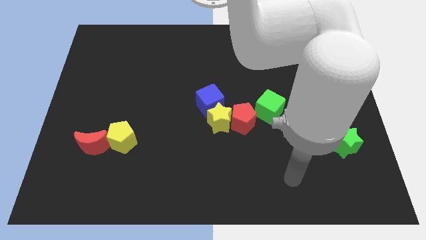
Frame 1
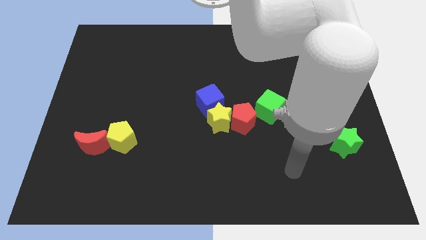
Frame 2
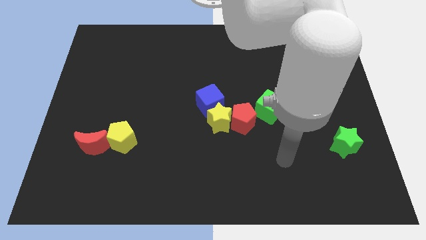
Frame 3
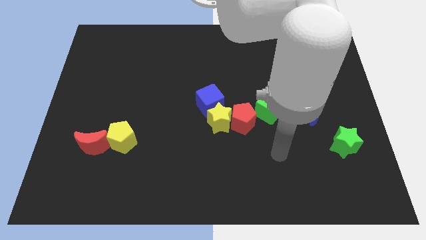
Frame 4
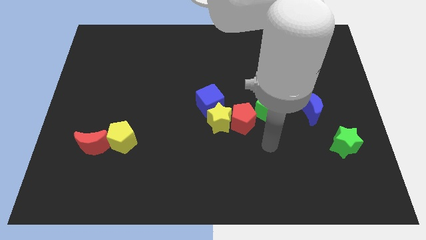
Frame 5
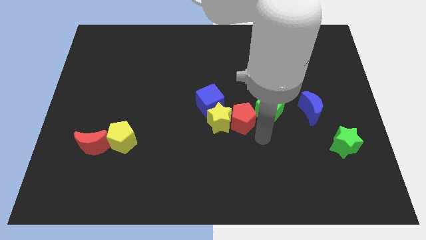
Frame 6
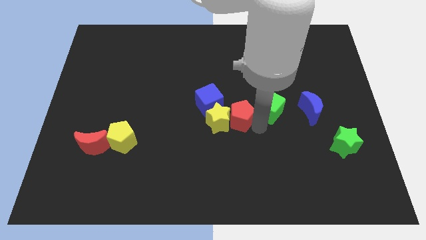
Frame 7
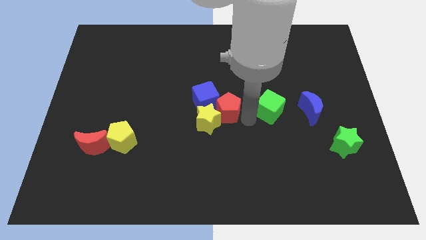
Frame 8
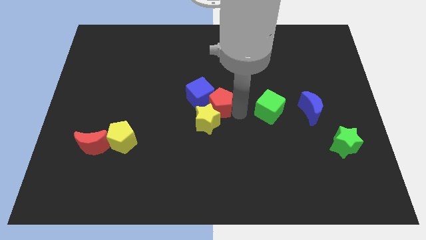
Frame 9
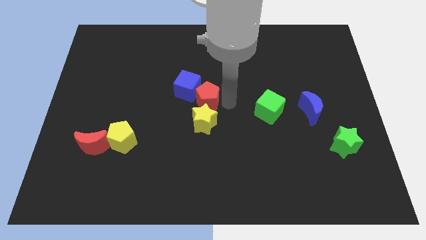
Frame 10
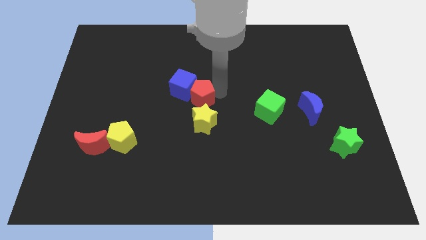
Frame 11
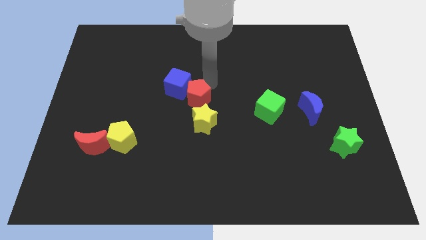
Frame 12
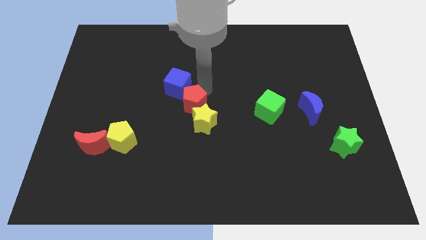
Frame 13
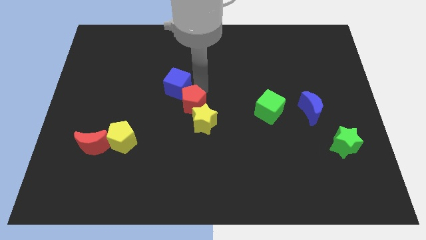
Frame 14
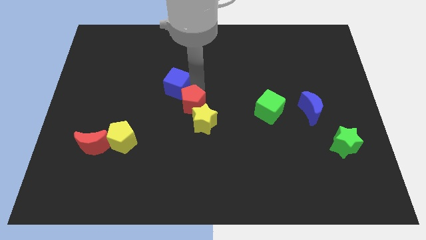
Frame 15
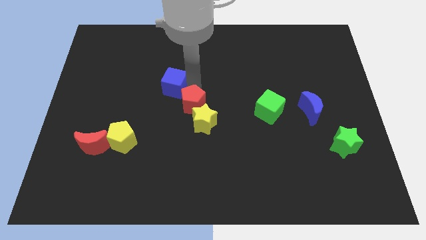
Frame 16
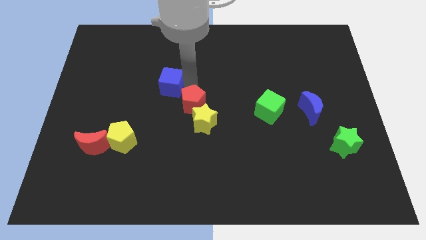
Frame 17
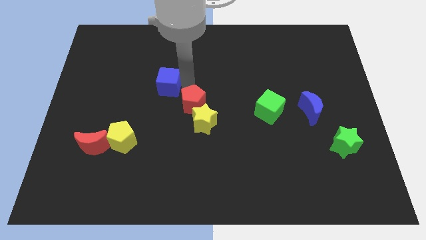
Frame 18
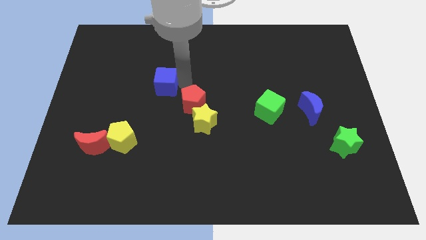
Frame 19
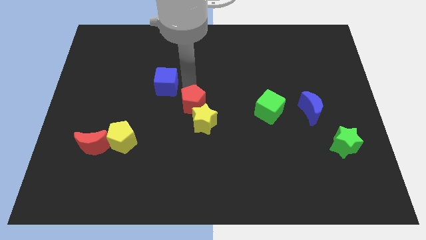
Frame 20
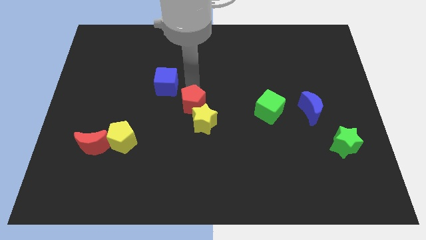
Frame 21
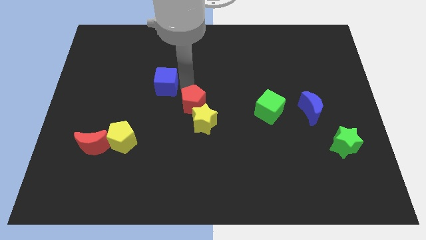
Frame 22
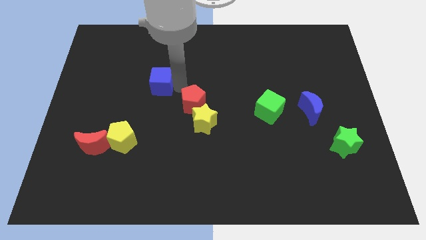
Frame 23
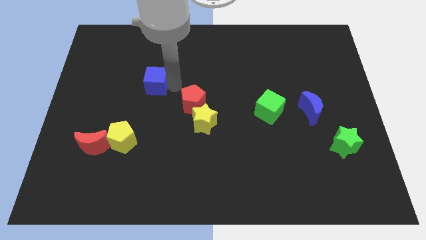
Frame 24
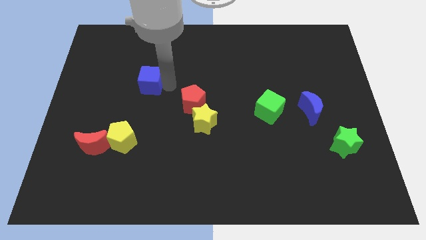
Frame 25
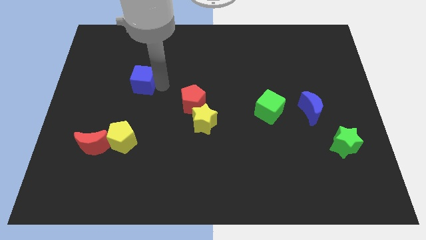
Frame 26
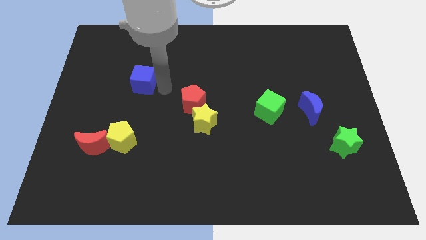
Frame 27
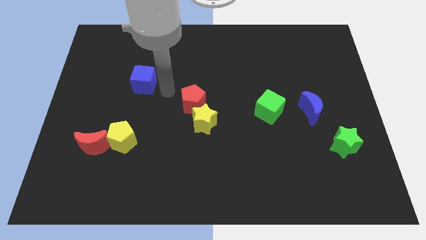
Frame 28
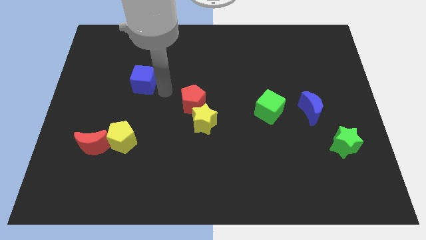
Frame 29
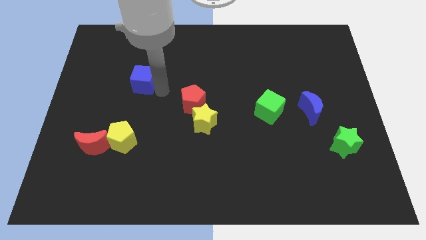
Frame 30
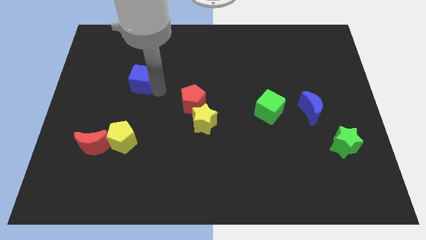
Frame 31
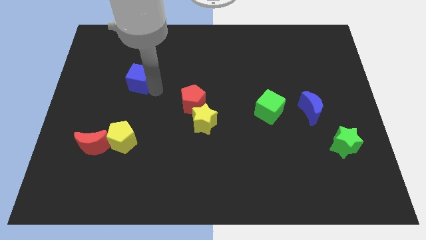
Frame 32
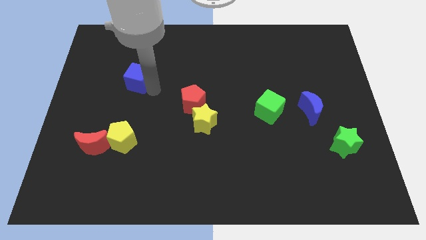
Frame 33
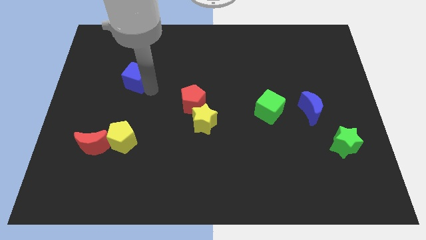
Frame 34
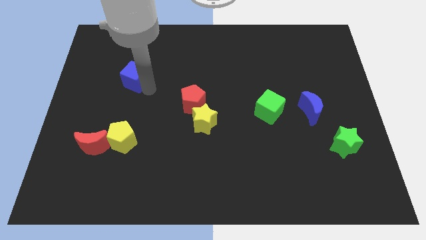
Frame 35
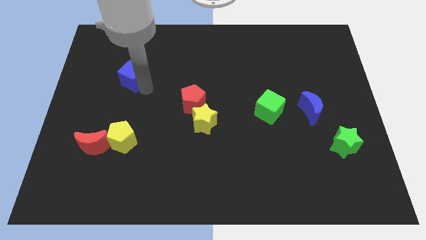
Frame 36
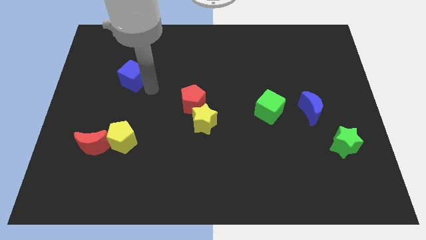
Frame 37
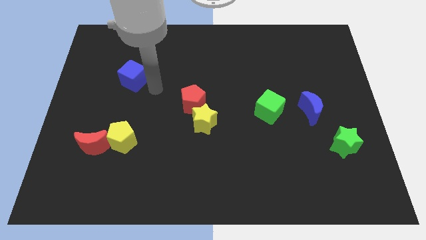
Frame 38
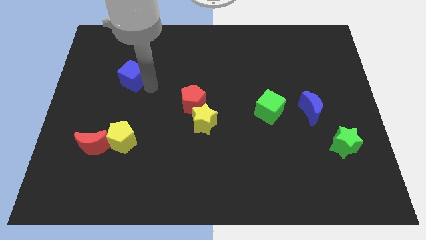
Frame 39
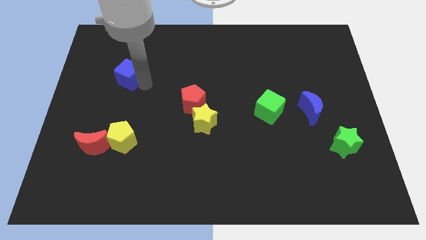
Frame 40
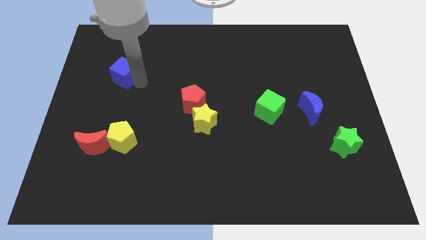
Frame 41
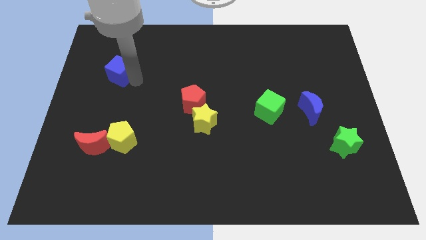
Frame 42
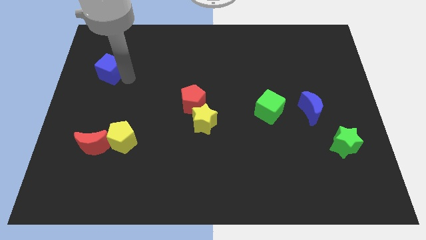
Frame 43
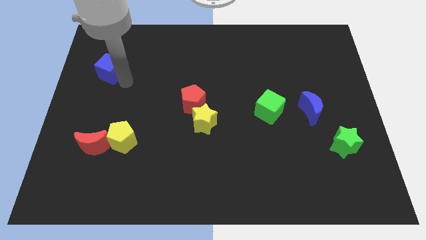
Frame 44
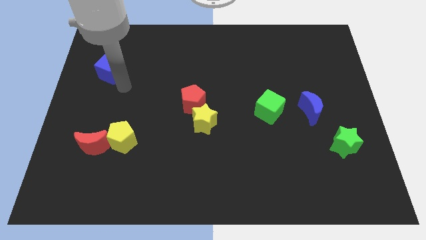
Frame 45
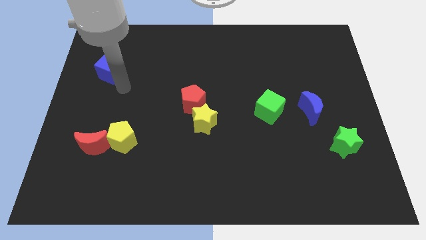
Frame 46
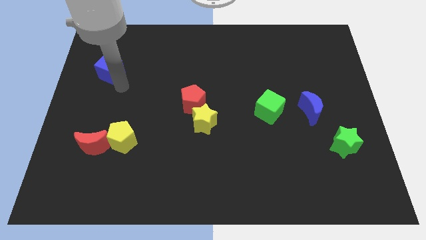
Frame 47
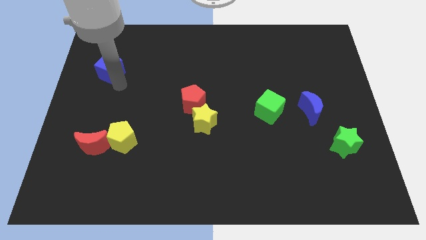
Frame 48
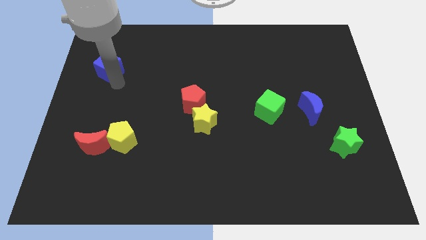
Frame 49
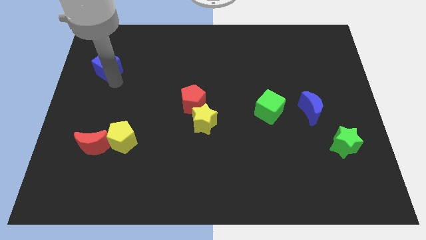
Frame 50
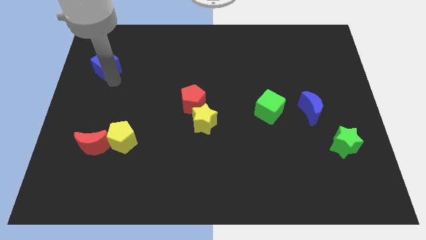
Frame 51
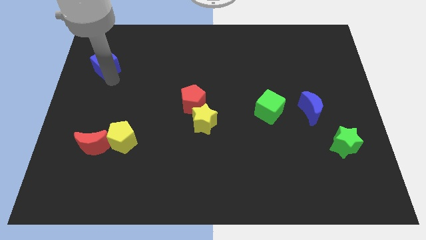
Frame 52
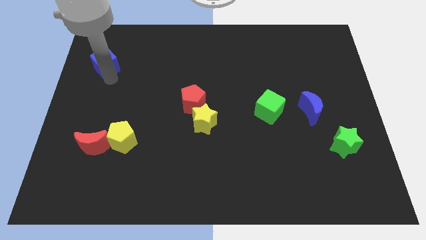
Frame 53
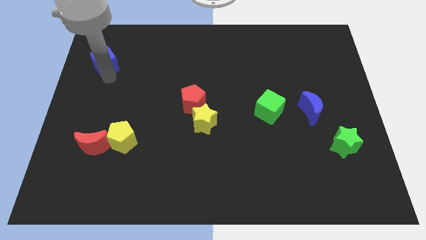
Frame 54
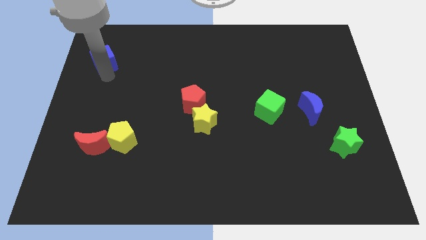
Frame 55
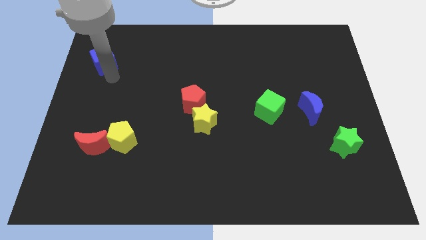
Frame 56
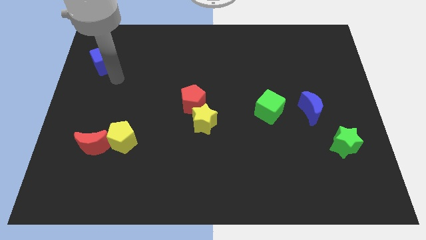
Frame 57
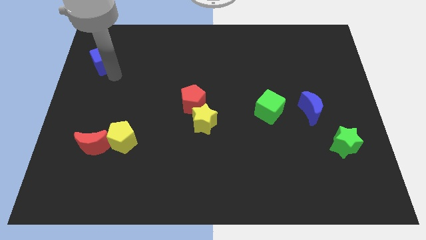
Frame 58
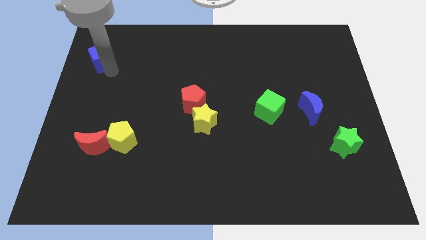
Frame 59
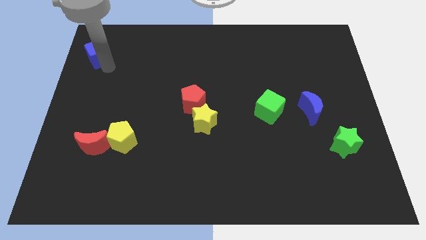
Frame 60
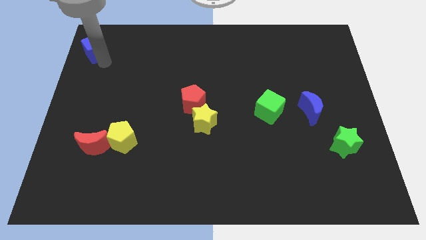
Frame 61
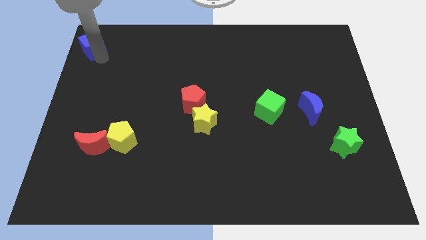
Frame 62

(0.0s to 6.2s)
move the blue cube to the top left corner

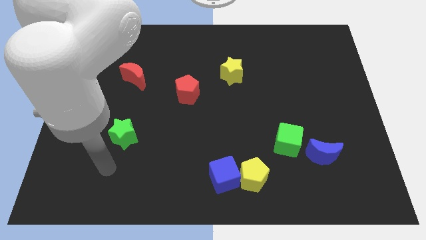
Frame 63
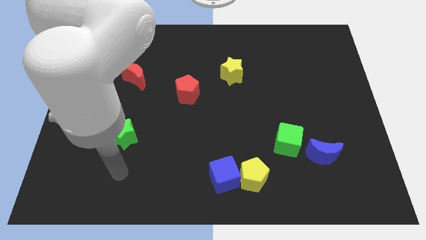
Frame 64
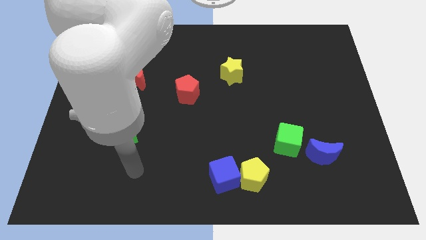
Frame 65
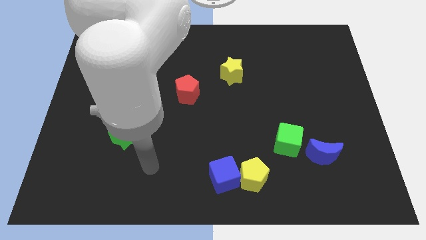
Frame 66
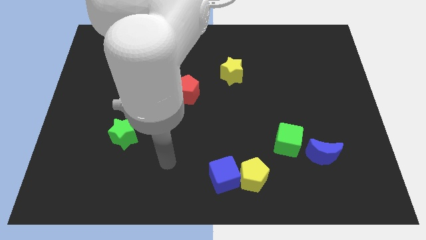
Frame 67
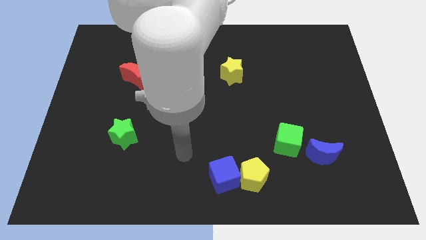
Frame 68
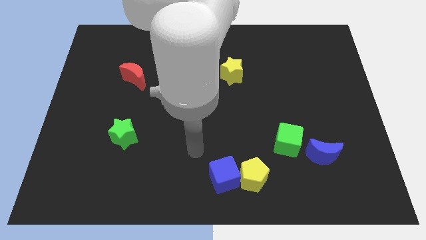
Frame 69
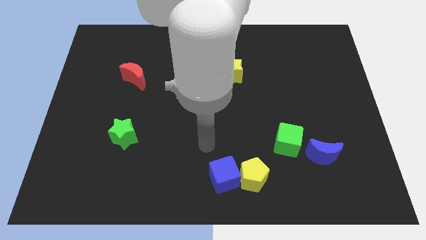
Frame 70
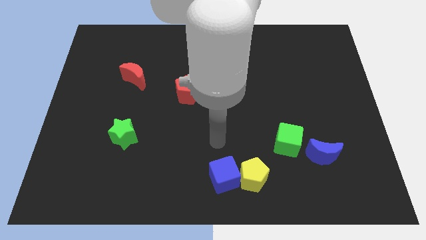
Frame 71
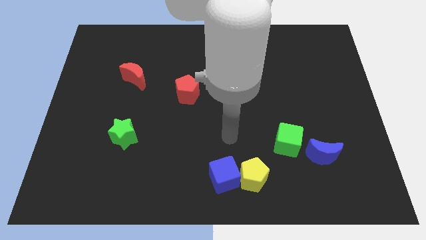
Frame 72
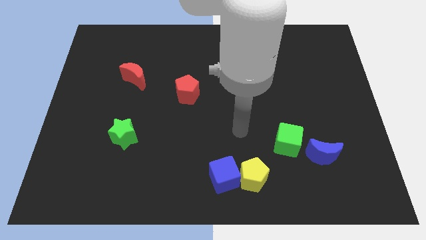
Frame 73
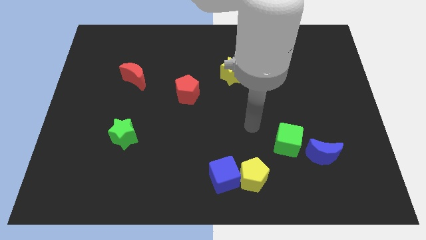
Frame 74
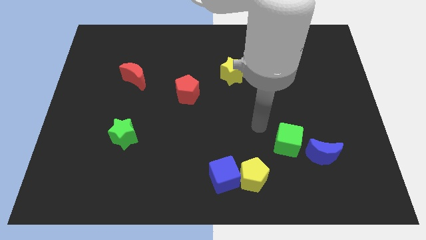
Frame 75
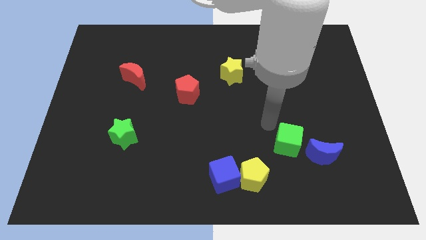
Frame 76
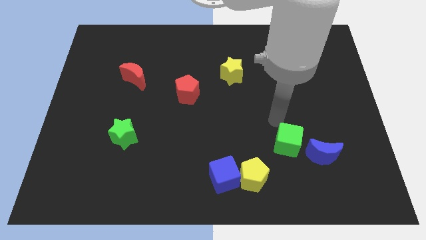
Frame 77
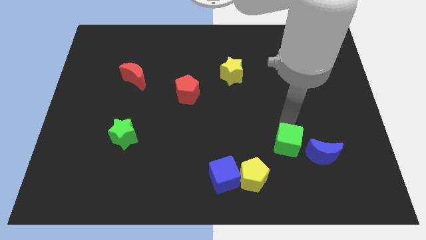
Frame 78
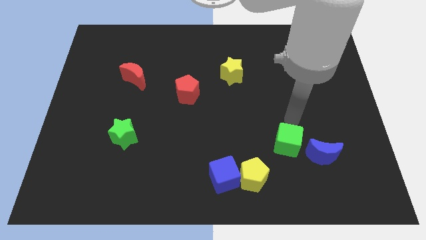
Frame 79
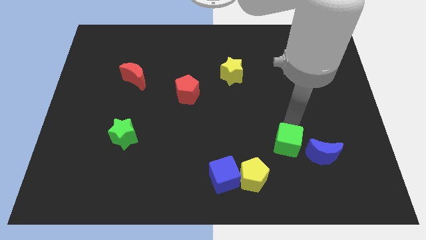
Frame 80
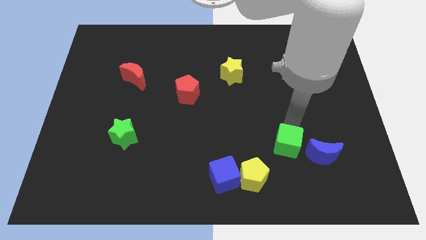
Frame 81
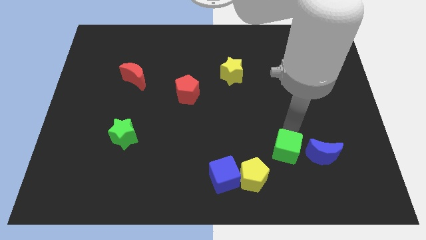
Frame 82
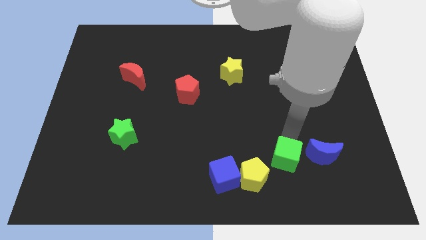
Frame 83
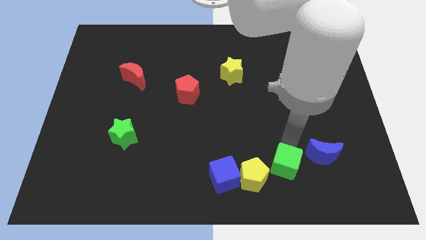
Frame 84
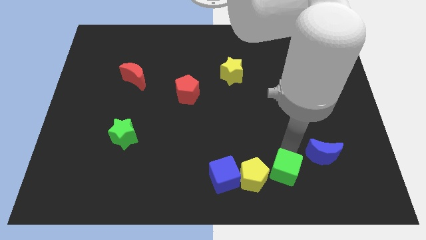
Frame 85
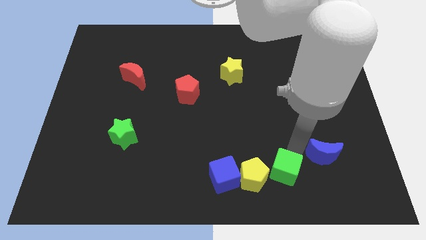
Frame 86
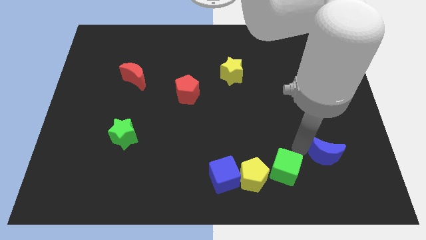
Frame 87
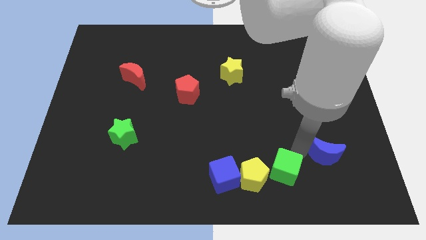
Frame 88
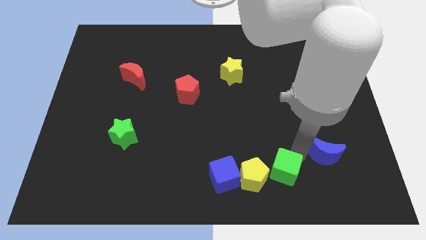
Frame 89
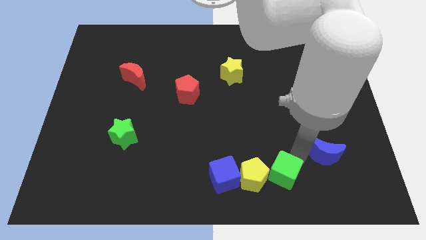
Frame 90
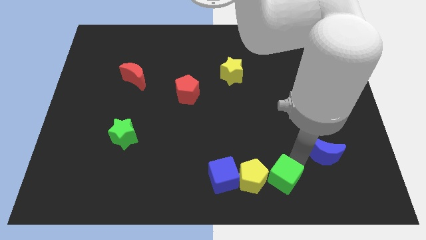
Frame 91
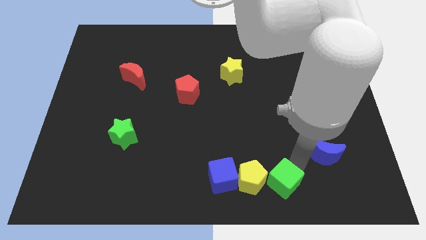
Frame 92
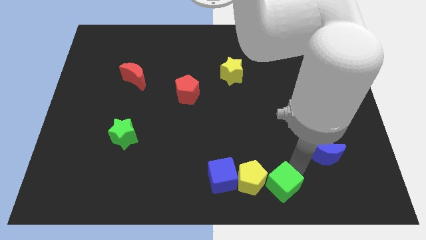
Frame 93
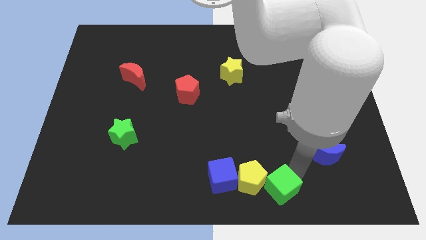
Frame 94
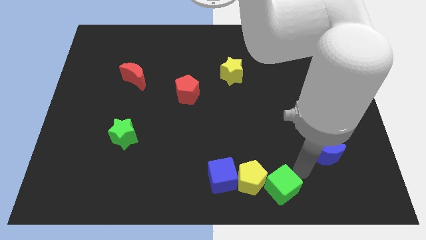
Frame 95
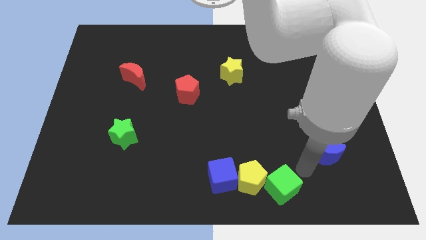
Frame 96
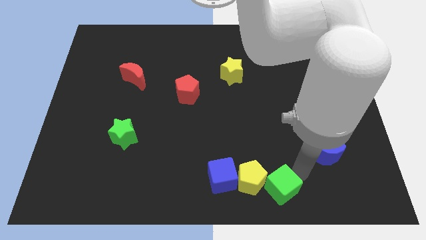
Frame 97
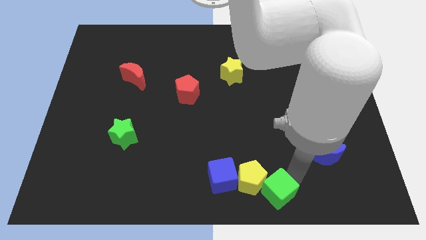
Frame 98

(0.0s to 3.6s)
push the green cube to the bottom
